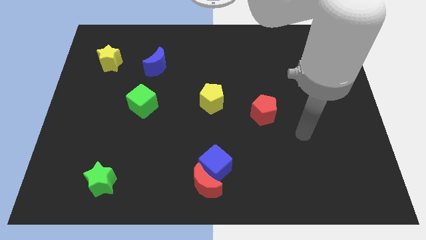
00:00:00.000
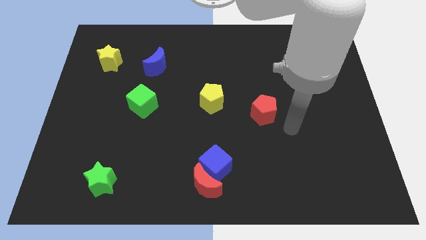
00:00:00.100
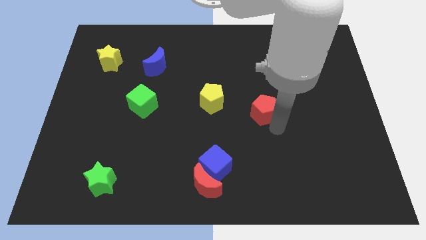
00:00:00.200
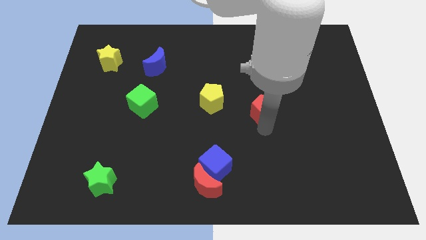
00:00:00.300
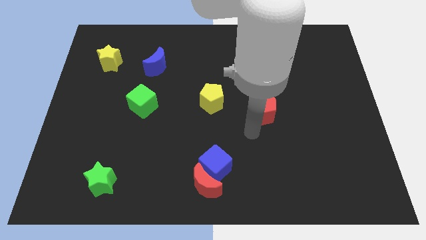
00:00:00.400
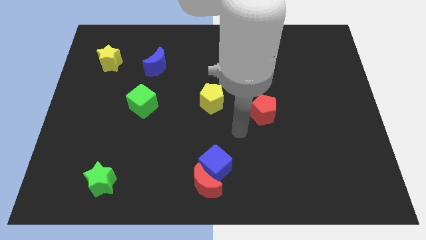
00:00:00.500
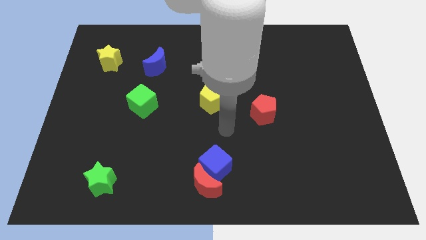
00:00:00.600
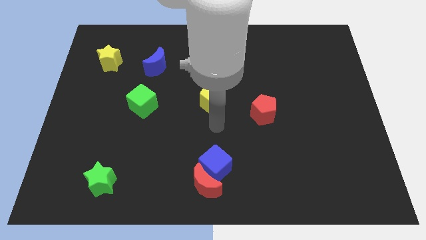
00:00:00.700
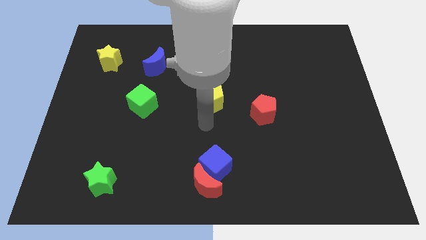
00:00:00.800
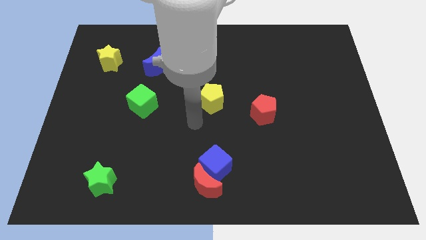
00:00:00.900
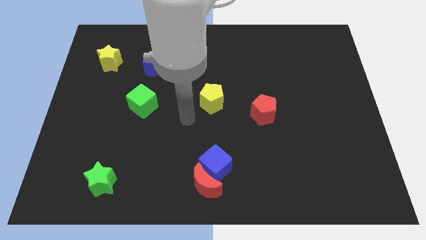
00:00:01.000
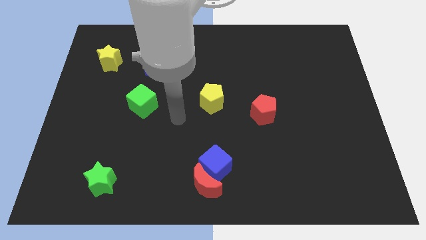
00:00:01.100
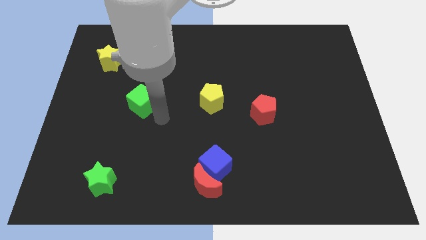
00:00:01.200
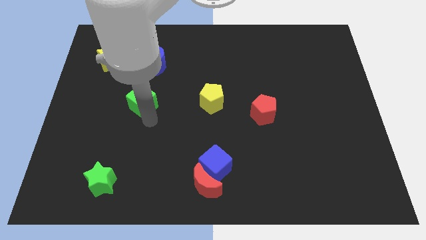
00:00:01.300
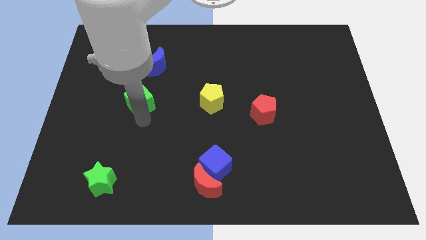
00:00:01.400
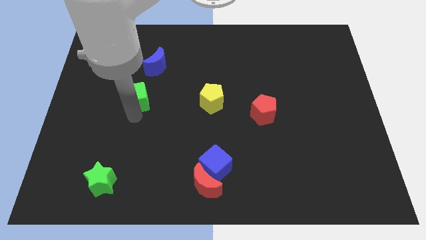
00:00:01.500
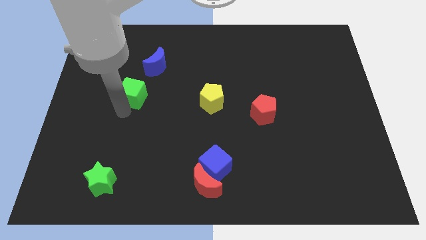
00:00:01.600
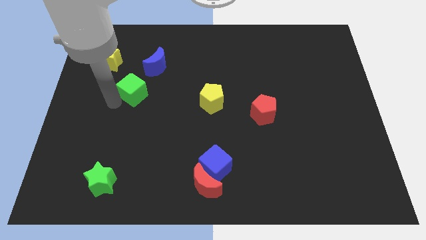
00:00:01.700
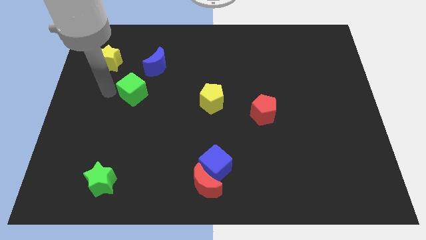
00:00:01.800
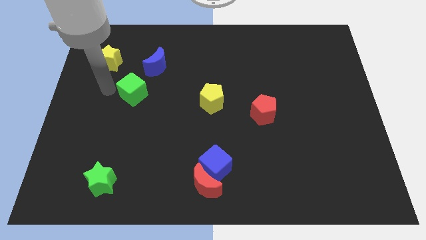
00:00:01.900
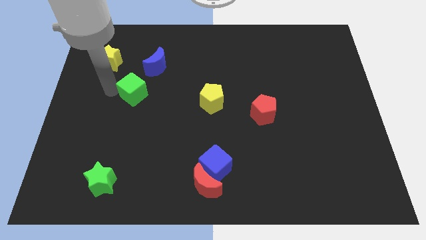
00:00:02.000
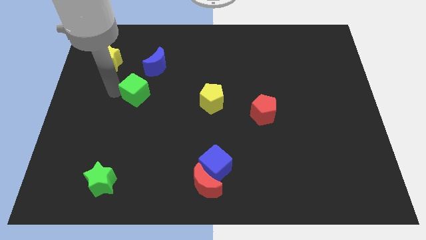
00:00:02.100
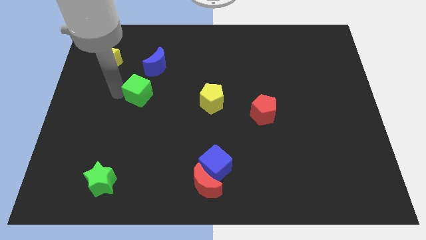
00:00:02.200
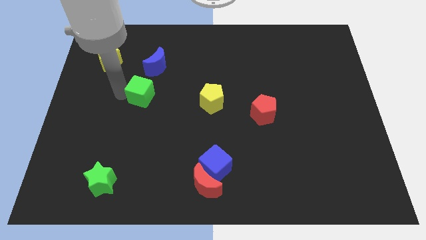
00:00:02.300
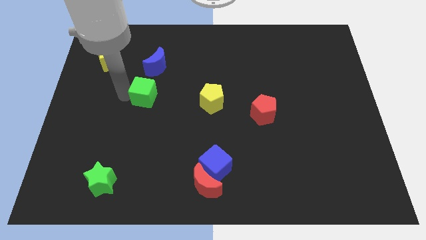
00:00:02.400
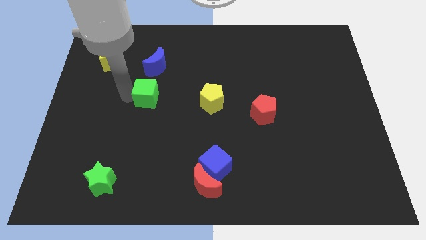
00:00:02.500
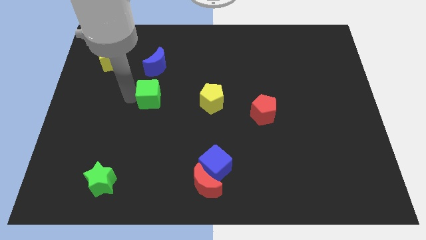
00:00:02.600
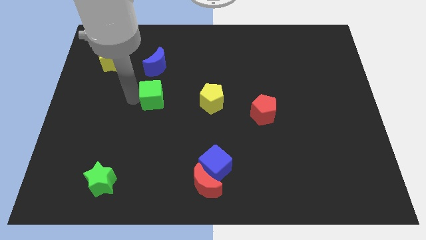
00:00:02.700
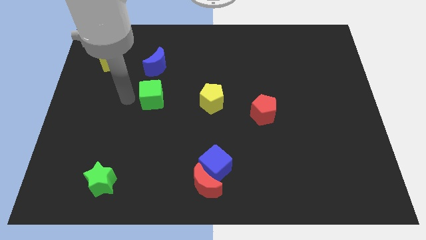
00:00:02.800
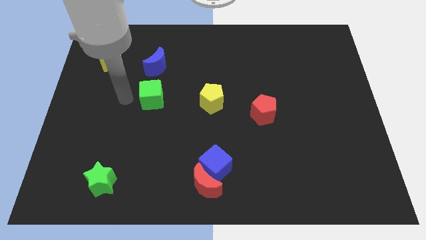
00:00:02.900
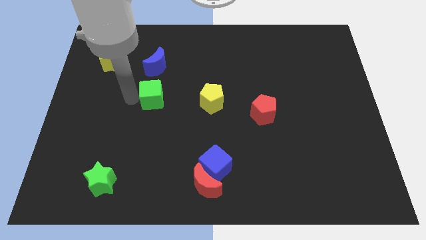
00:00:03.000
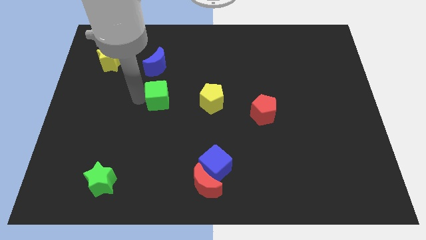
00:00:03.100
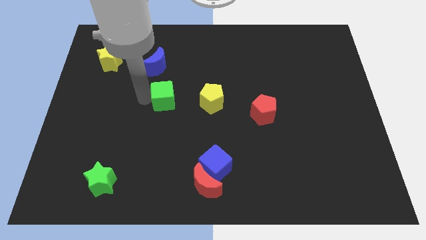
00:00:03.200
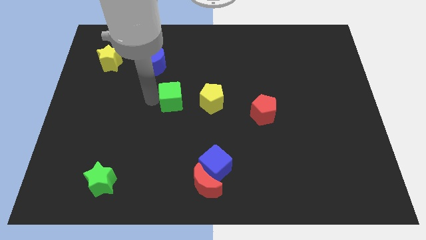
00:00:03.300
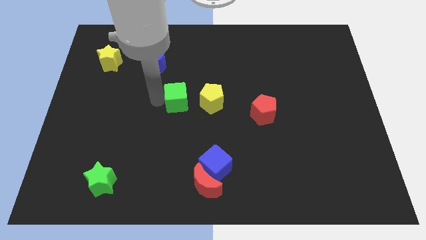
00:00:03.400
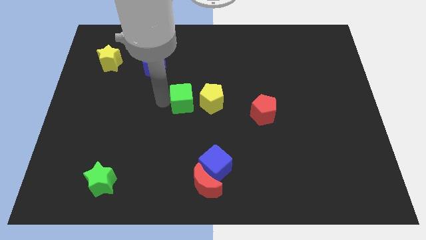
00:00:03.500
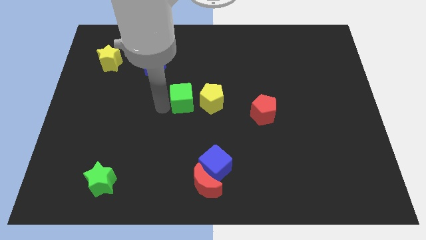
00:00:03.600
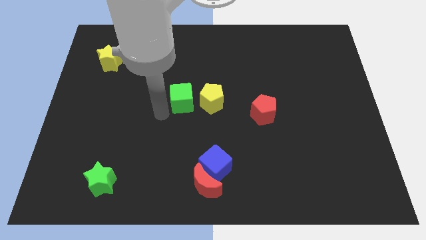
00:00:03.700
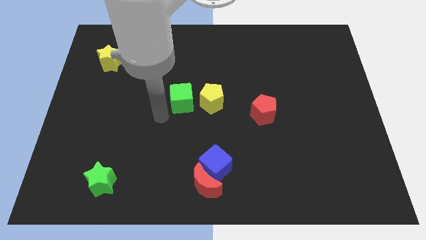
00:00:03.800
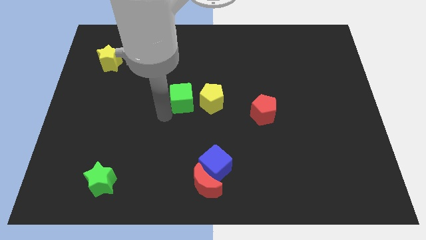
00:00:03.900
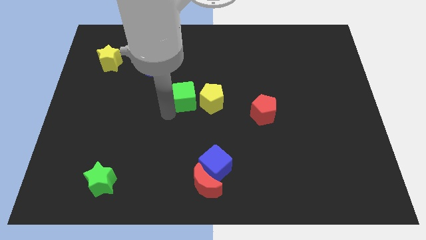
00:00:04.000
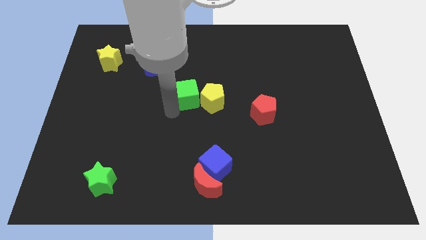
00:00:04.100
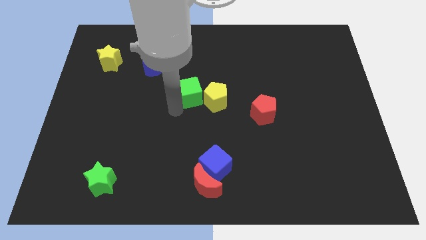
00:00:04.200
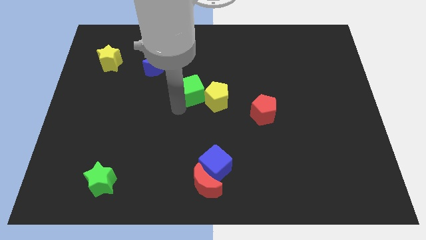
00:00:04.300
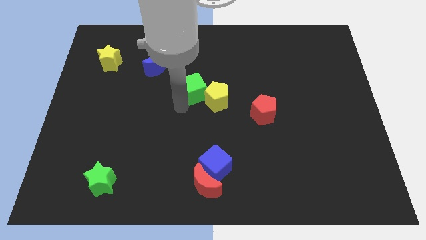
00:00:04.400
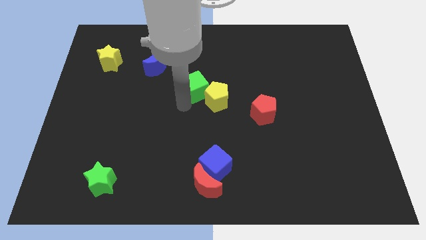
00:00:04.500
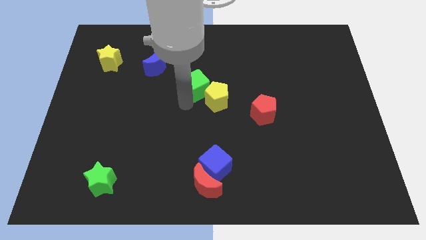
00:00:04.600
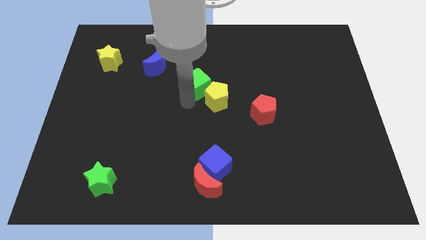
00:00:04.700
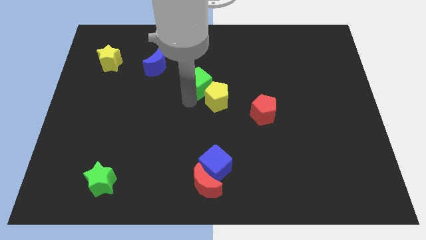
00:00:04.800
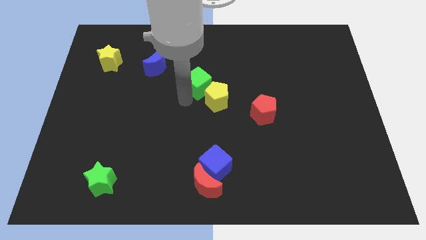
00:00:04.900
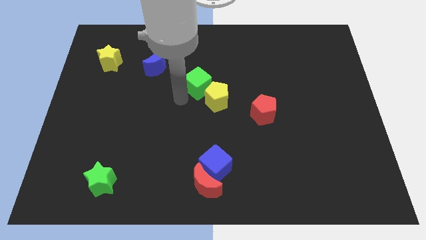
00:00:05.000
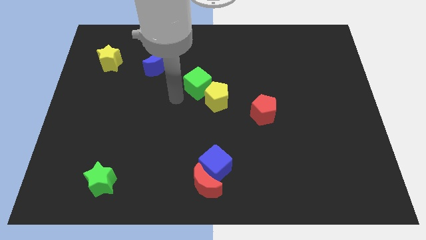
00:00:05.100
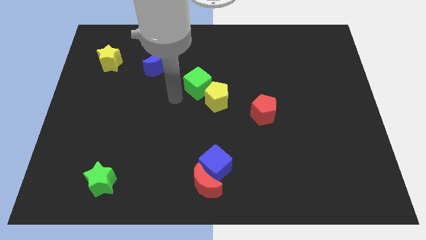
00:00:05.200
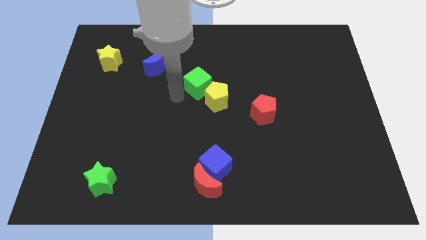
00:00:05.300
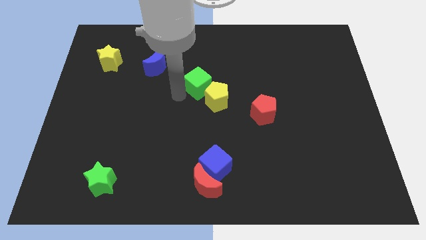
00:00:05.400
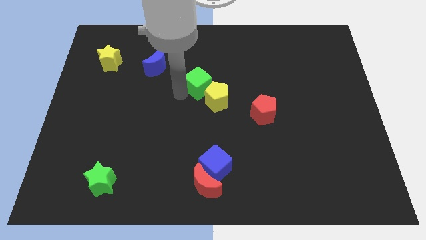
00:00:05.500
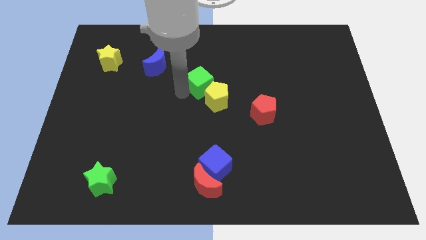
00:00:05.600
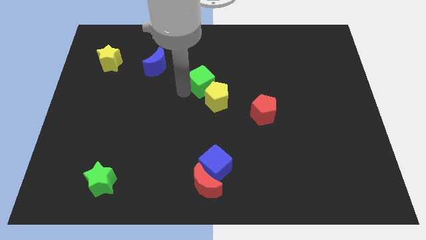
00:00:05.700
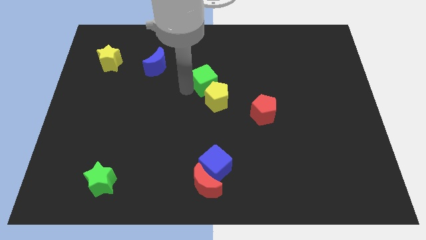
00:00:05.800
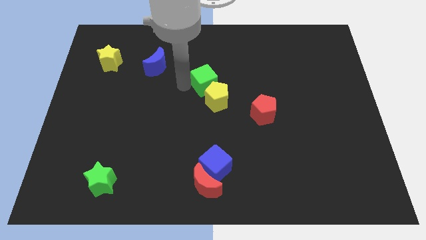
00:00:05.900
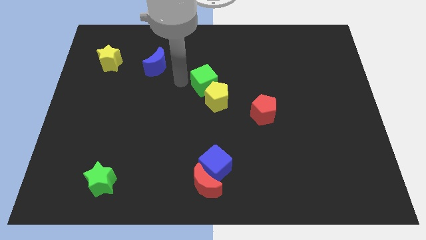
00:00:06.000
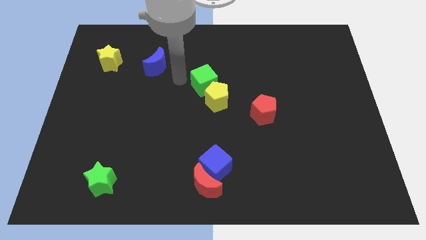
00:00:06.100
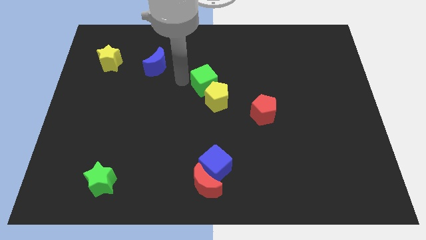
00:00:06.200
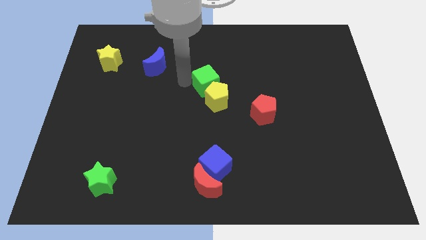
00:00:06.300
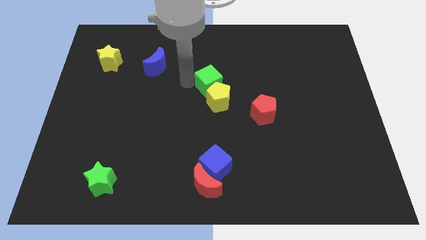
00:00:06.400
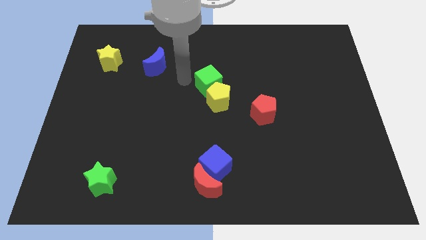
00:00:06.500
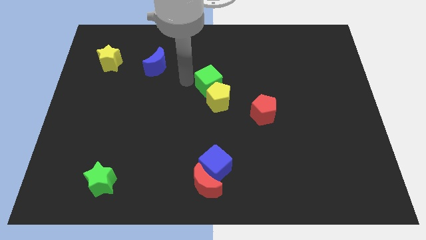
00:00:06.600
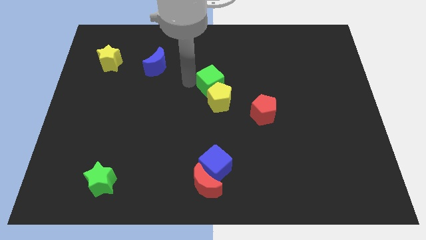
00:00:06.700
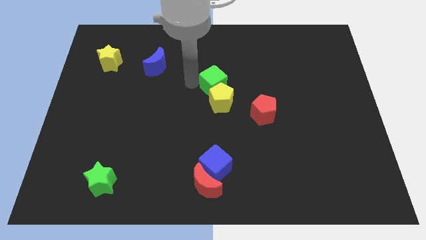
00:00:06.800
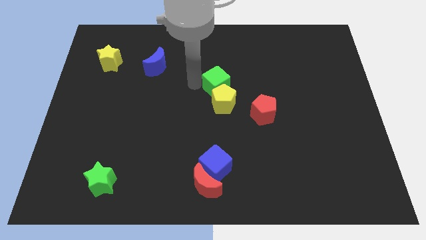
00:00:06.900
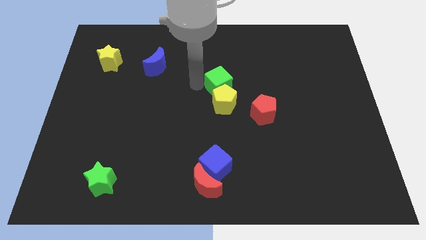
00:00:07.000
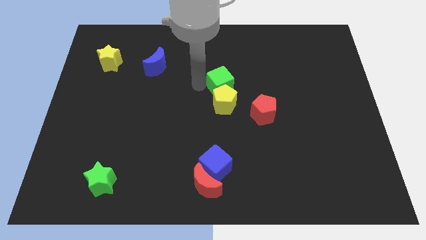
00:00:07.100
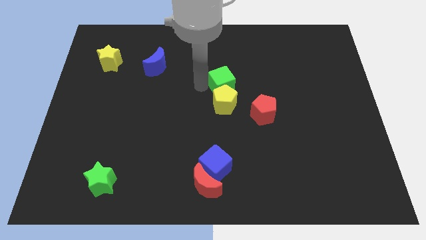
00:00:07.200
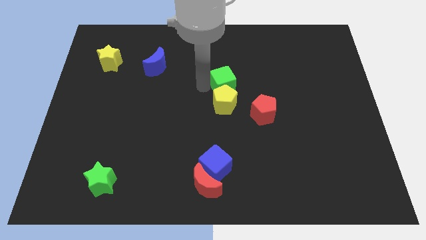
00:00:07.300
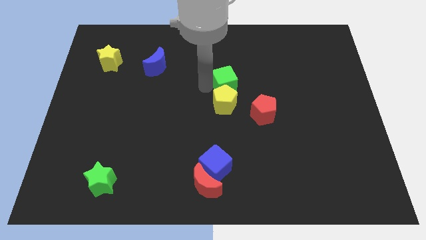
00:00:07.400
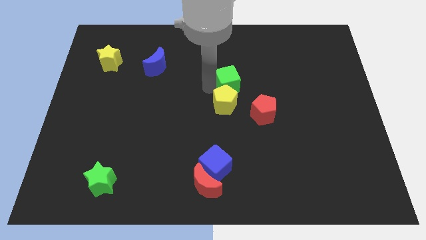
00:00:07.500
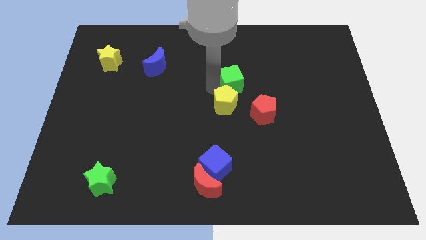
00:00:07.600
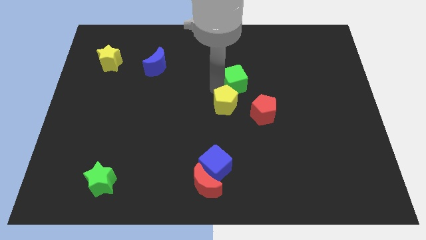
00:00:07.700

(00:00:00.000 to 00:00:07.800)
move the green cube right
